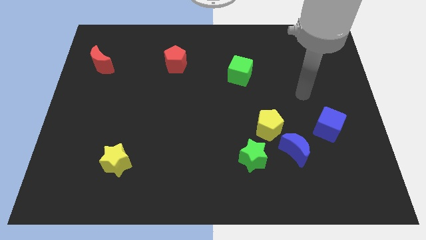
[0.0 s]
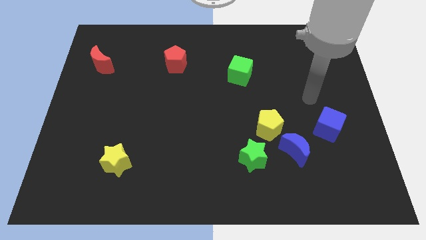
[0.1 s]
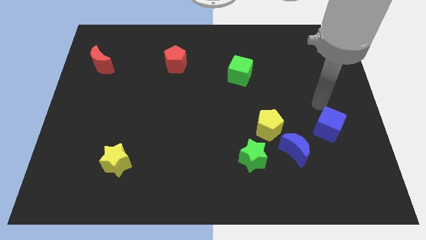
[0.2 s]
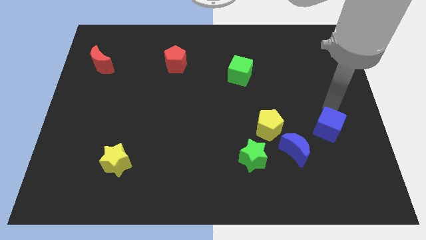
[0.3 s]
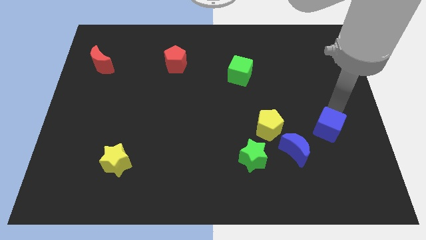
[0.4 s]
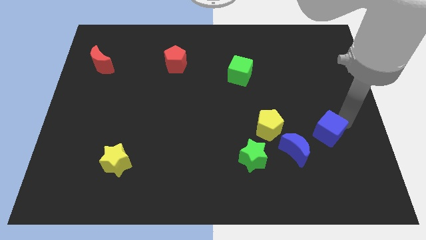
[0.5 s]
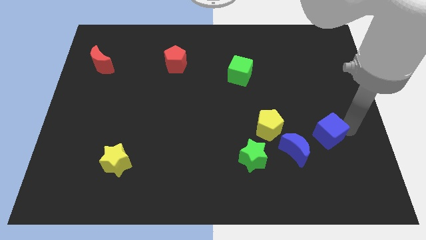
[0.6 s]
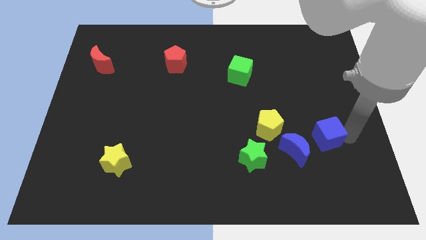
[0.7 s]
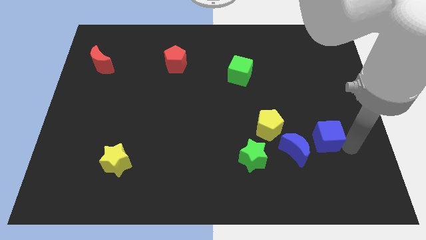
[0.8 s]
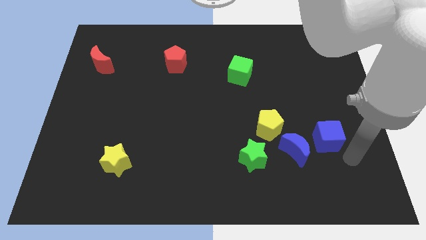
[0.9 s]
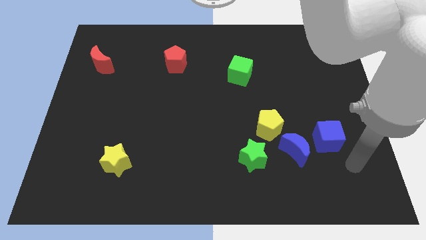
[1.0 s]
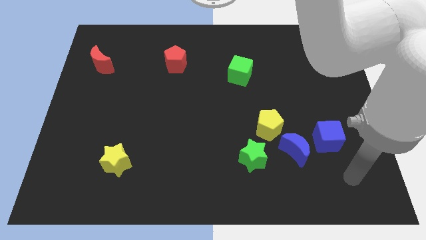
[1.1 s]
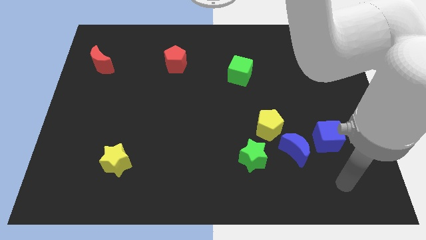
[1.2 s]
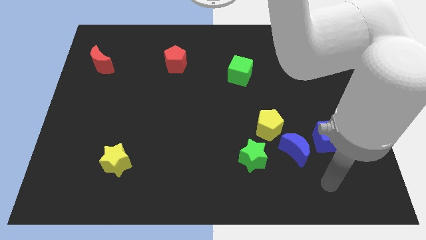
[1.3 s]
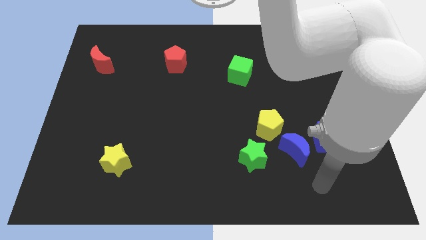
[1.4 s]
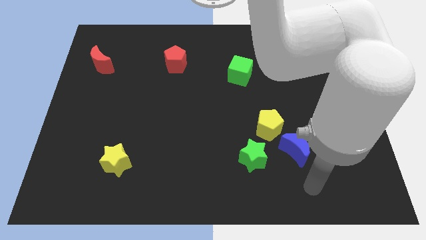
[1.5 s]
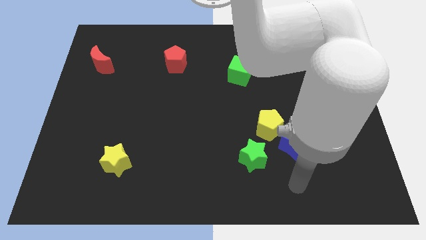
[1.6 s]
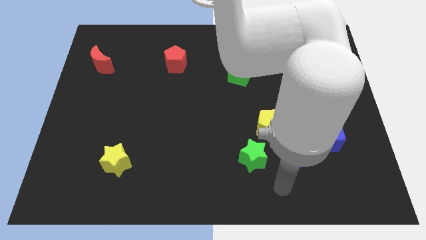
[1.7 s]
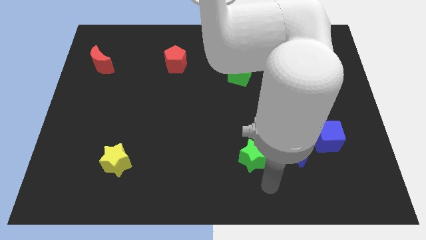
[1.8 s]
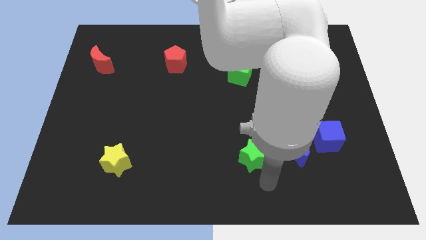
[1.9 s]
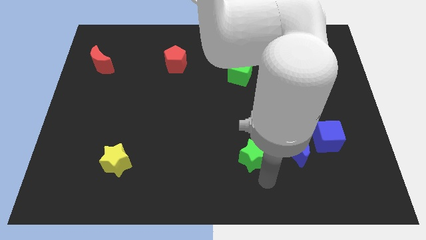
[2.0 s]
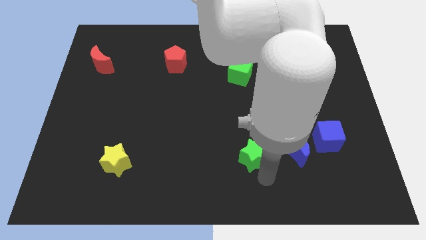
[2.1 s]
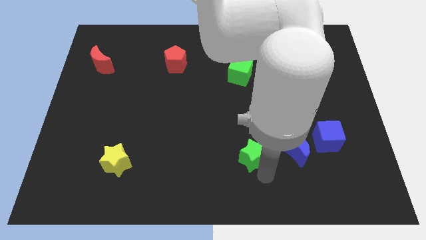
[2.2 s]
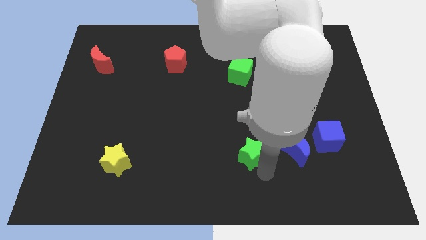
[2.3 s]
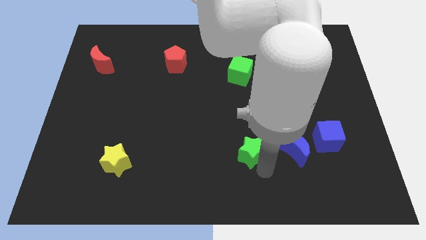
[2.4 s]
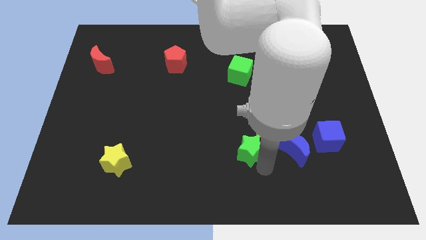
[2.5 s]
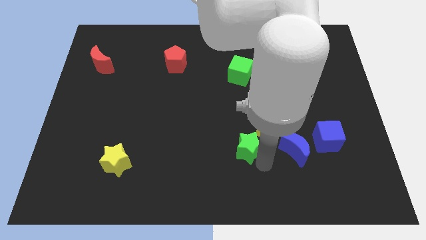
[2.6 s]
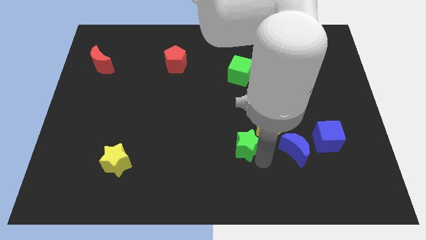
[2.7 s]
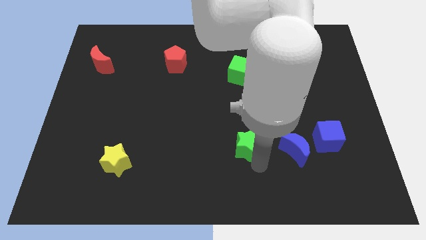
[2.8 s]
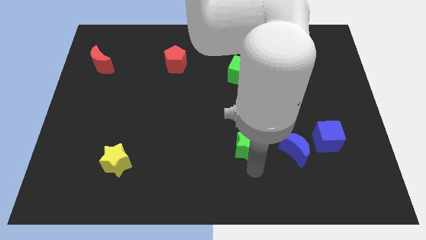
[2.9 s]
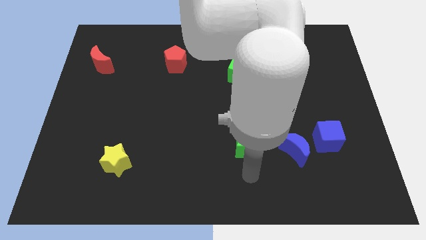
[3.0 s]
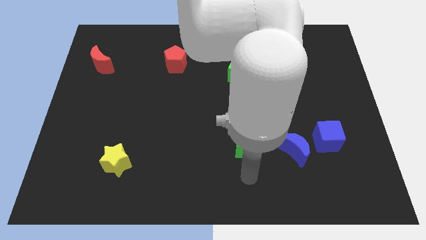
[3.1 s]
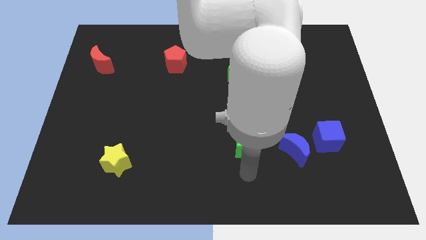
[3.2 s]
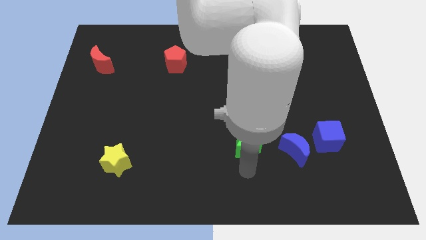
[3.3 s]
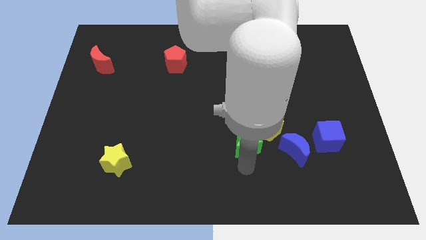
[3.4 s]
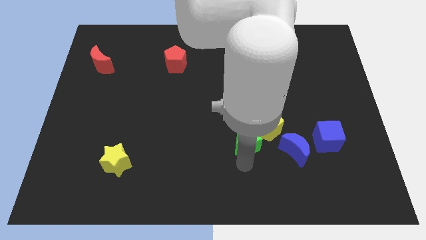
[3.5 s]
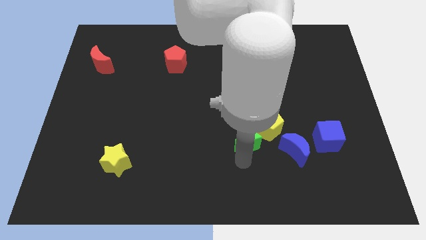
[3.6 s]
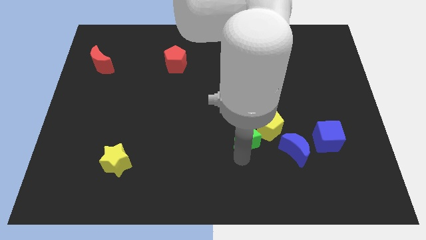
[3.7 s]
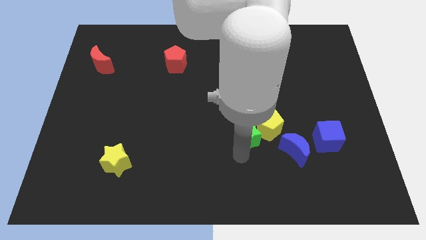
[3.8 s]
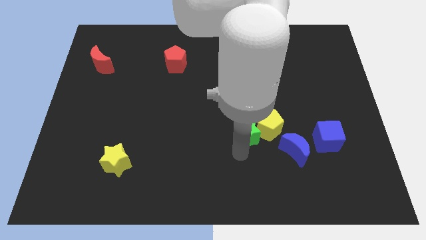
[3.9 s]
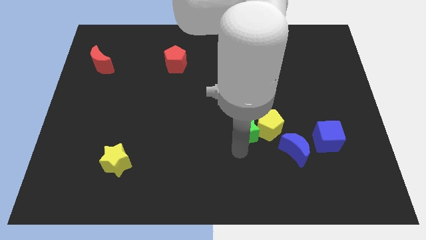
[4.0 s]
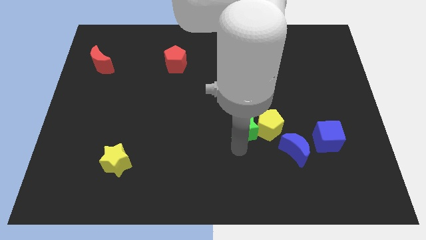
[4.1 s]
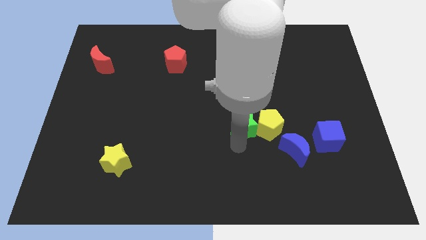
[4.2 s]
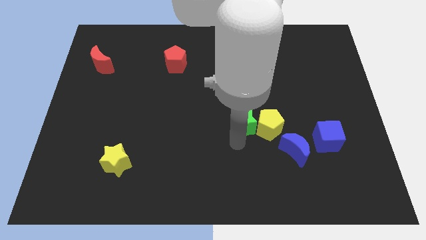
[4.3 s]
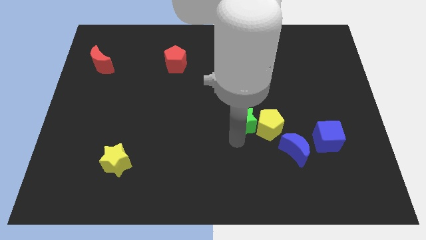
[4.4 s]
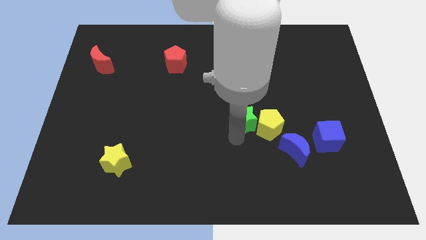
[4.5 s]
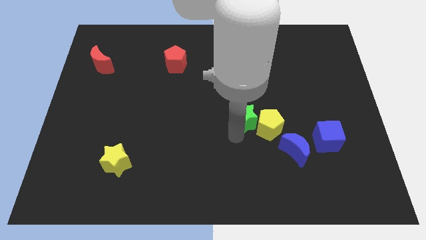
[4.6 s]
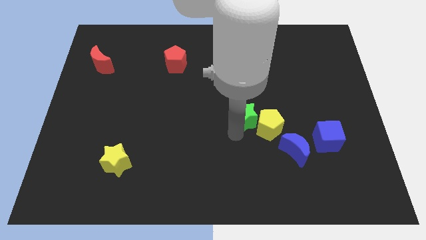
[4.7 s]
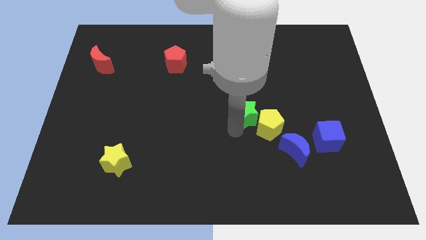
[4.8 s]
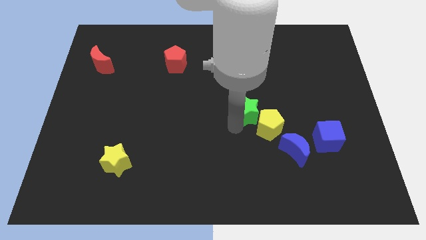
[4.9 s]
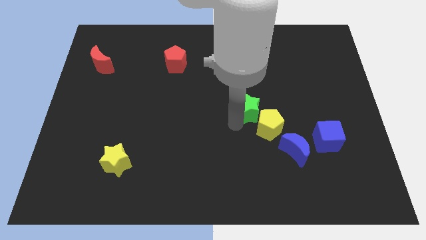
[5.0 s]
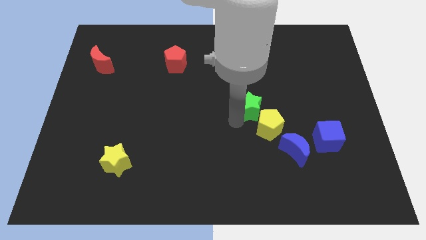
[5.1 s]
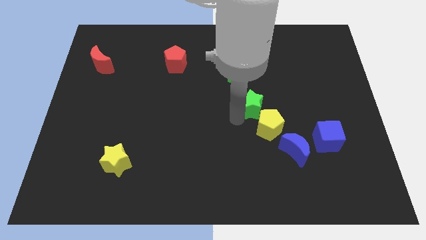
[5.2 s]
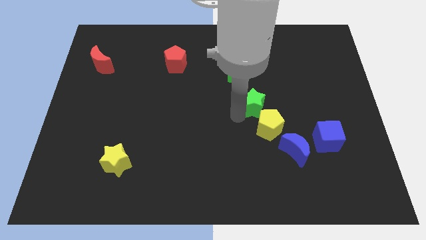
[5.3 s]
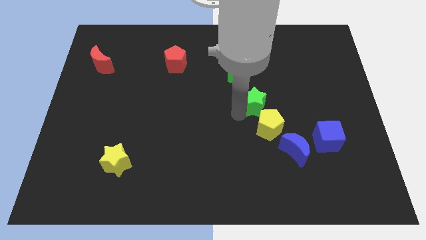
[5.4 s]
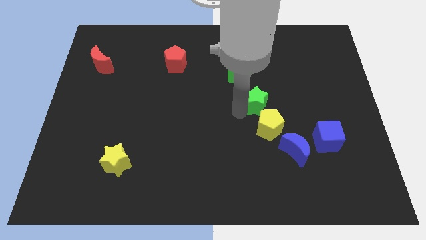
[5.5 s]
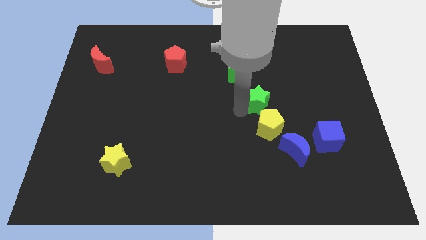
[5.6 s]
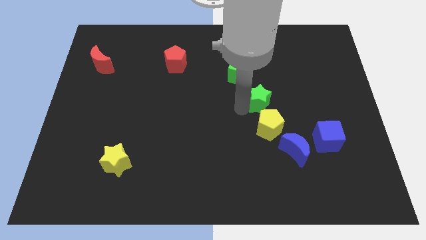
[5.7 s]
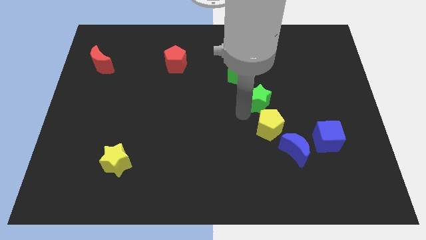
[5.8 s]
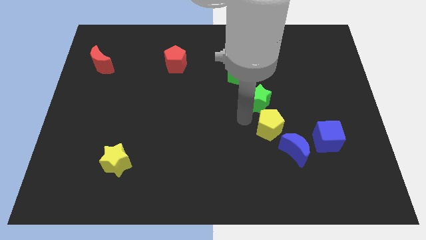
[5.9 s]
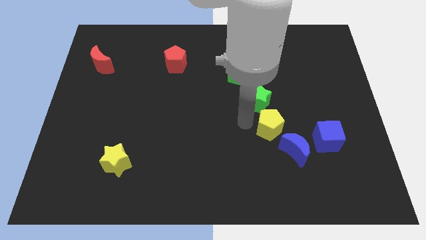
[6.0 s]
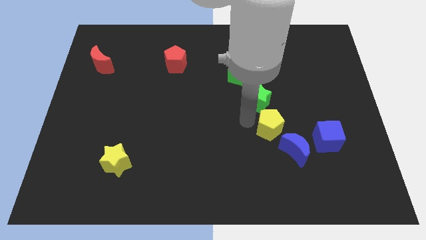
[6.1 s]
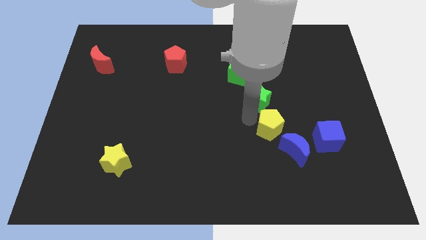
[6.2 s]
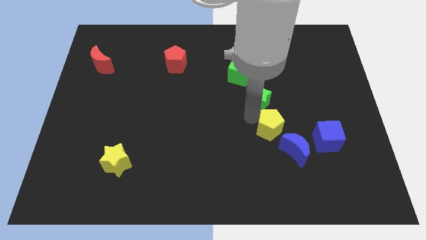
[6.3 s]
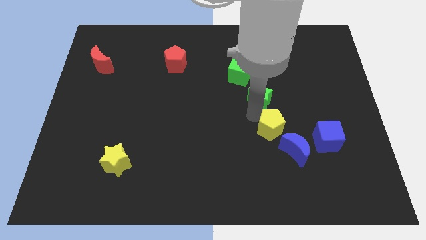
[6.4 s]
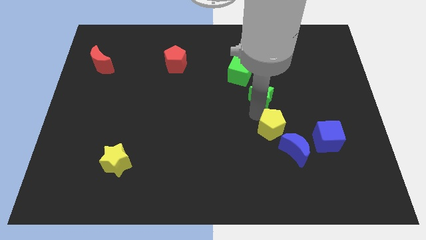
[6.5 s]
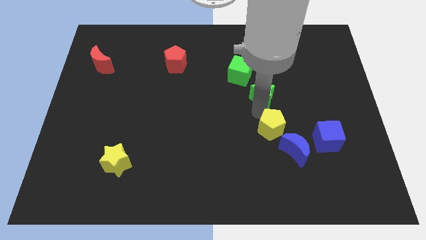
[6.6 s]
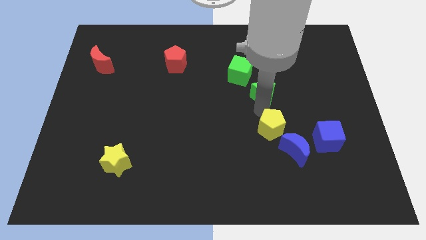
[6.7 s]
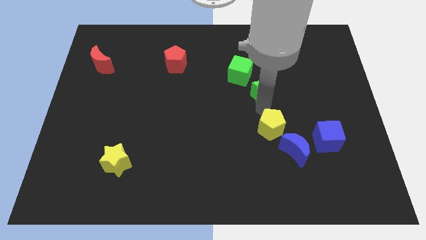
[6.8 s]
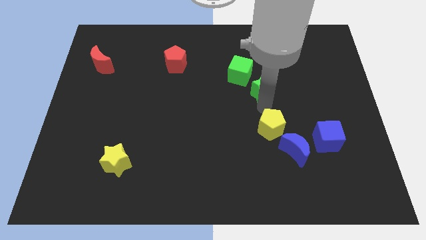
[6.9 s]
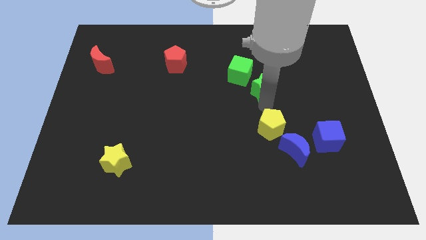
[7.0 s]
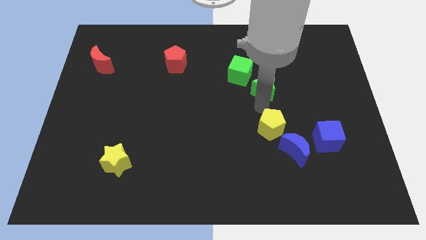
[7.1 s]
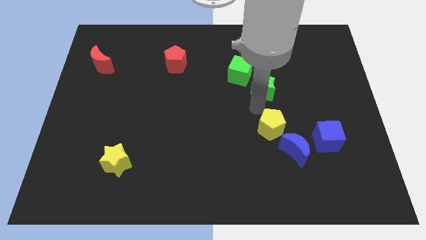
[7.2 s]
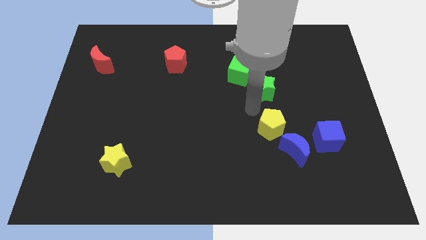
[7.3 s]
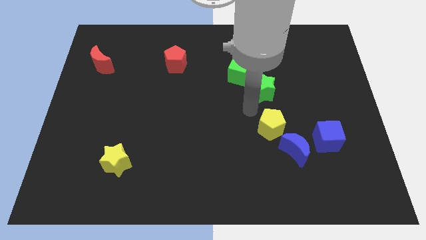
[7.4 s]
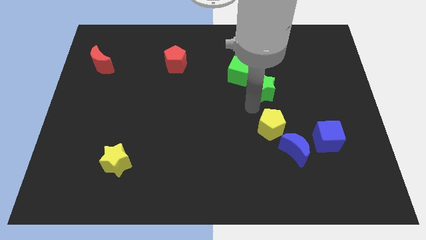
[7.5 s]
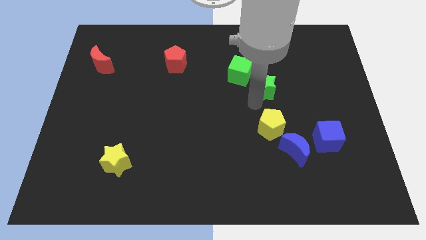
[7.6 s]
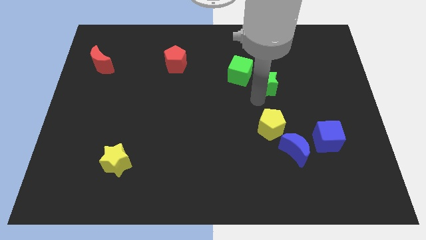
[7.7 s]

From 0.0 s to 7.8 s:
put the green star right of the green cube
